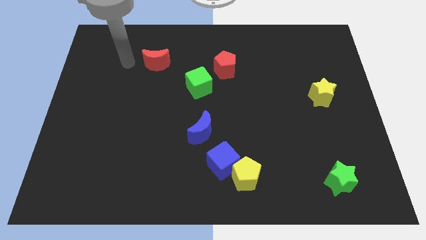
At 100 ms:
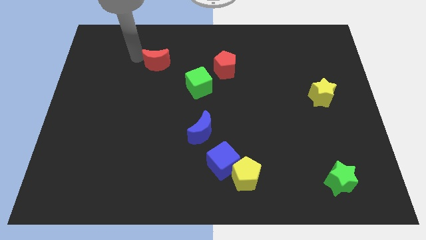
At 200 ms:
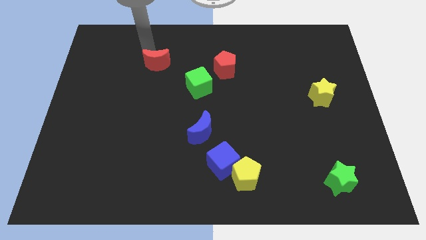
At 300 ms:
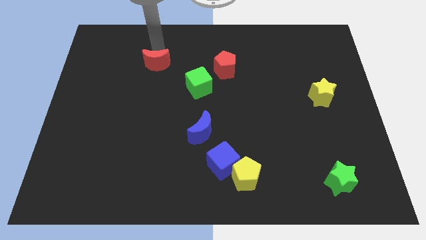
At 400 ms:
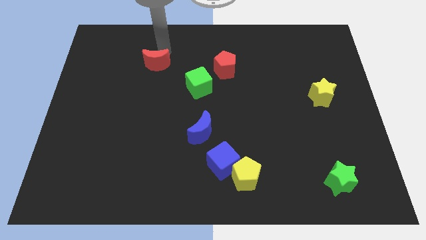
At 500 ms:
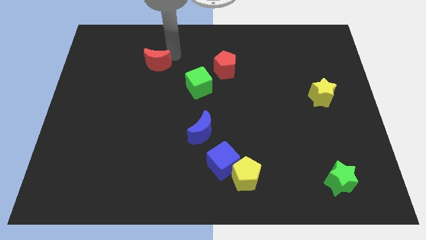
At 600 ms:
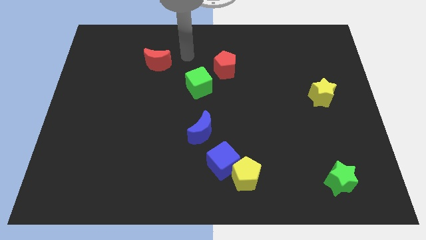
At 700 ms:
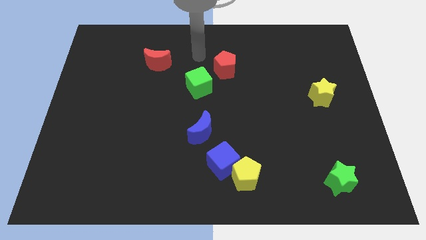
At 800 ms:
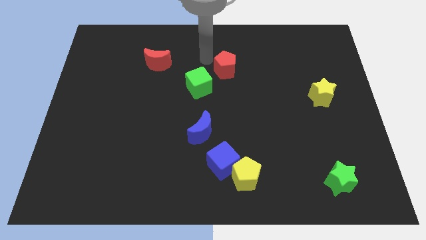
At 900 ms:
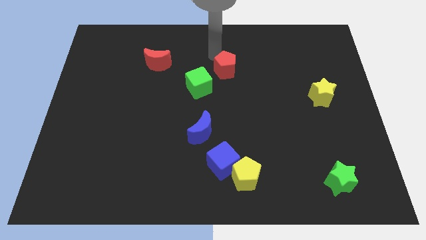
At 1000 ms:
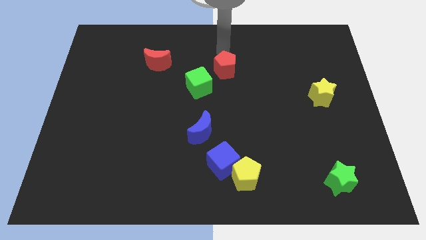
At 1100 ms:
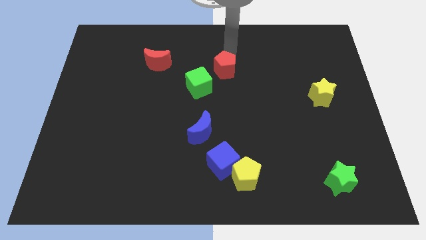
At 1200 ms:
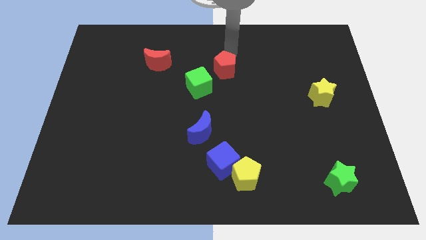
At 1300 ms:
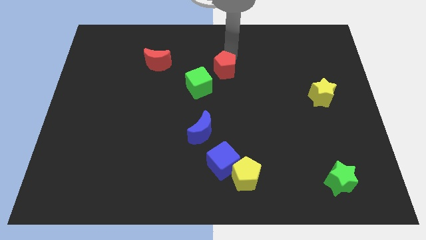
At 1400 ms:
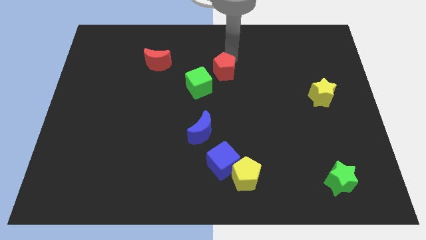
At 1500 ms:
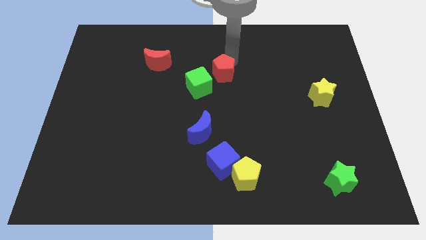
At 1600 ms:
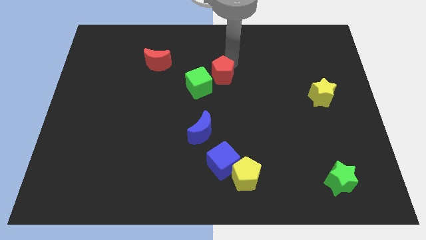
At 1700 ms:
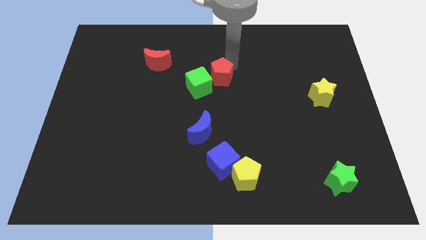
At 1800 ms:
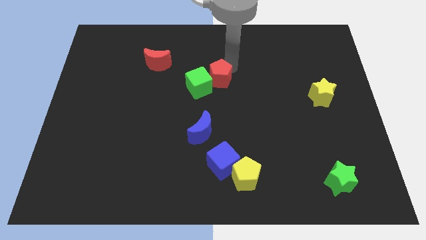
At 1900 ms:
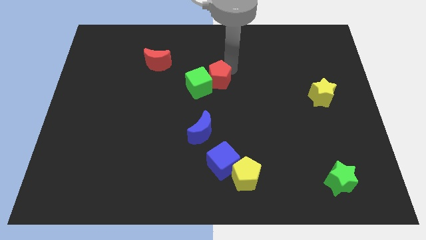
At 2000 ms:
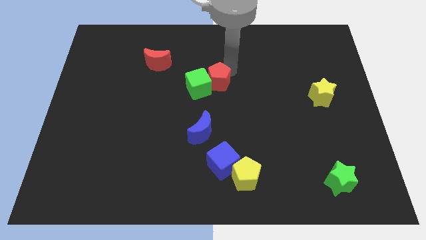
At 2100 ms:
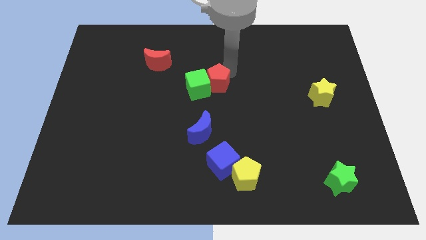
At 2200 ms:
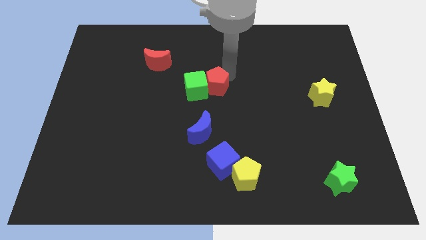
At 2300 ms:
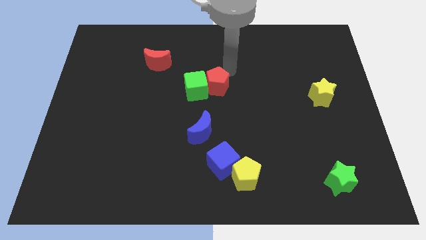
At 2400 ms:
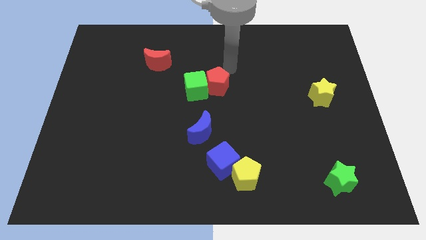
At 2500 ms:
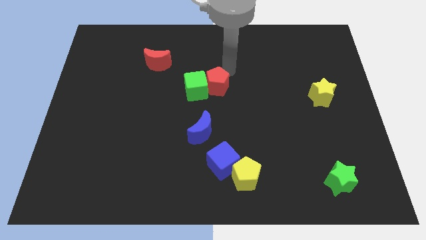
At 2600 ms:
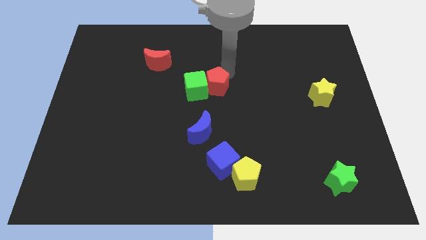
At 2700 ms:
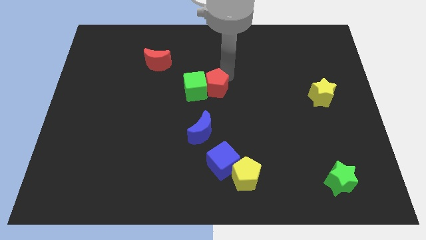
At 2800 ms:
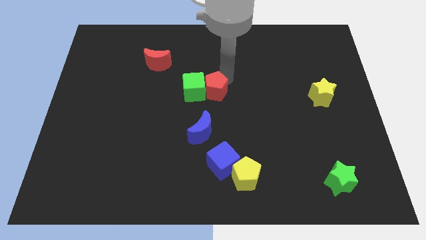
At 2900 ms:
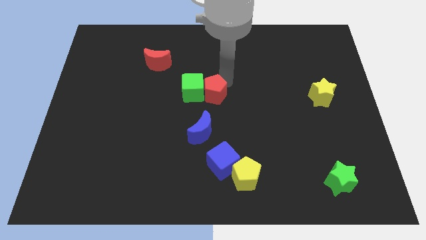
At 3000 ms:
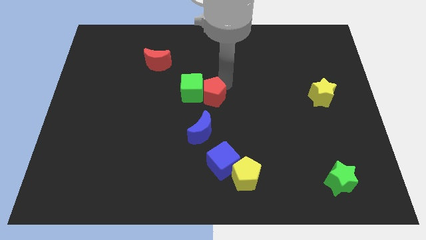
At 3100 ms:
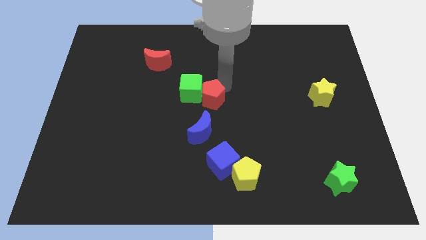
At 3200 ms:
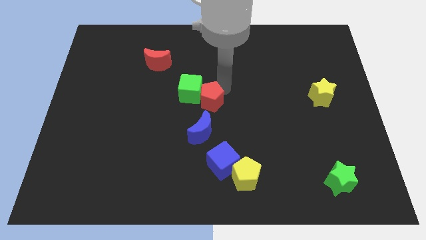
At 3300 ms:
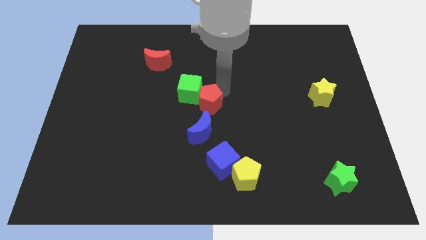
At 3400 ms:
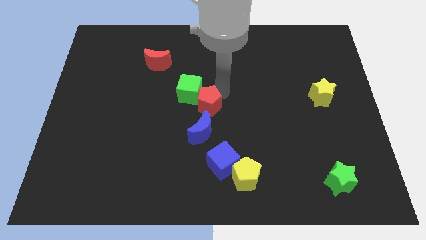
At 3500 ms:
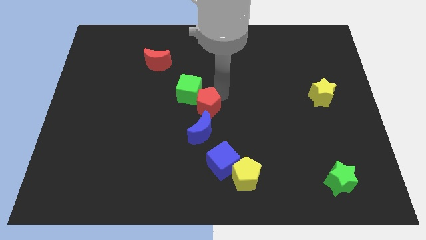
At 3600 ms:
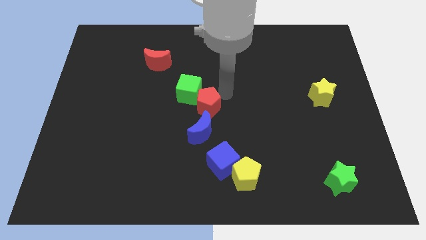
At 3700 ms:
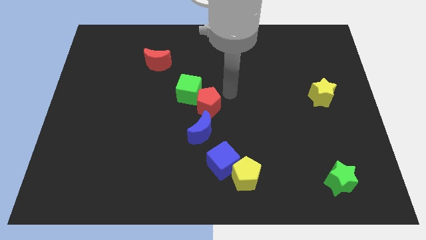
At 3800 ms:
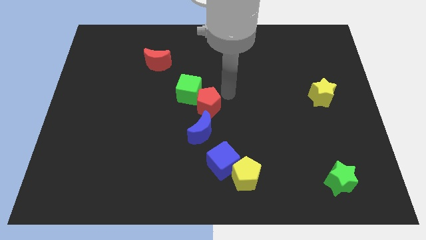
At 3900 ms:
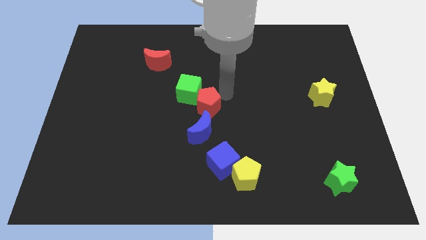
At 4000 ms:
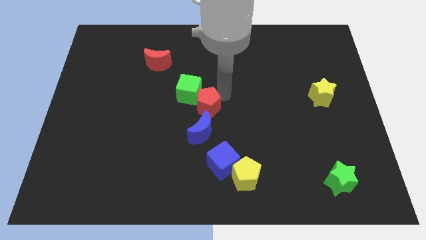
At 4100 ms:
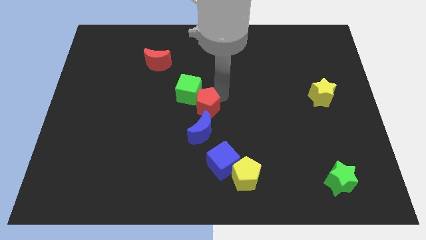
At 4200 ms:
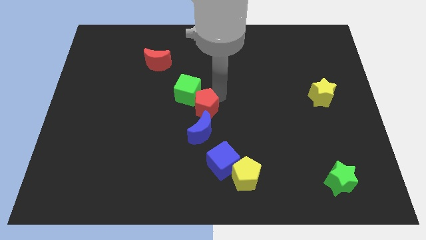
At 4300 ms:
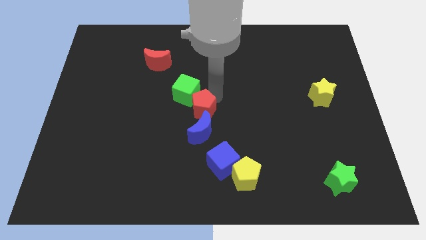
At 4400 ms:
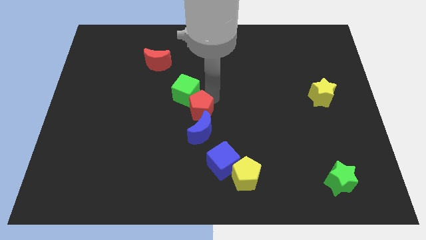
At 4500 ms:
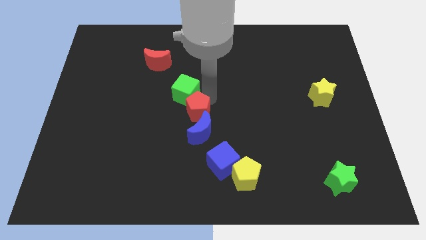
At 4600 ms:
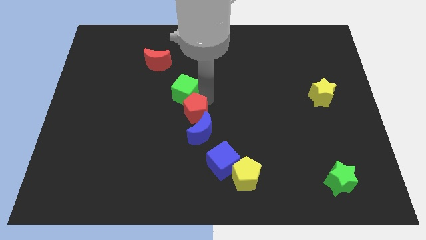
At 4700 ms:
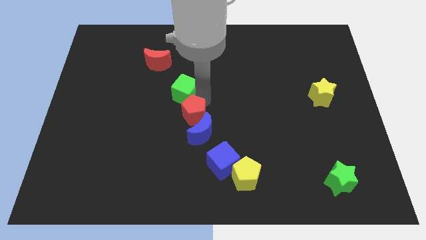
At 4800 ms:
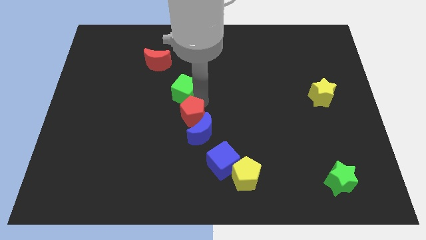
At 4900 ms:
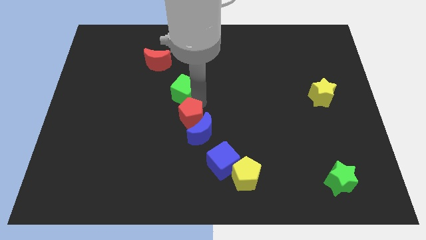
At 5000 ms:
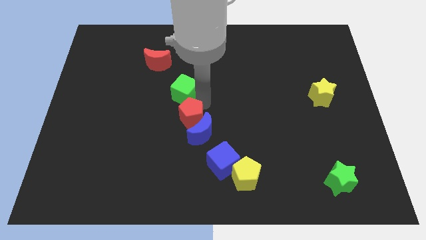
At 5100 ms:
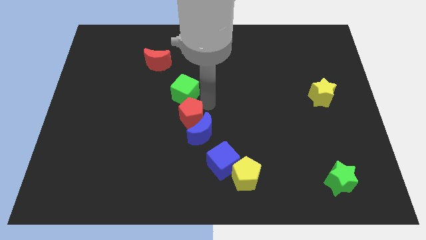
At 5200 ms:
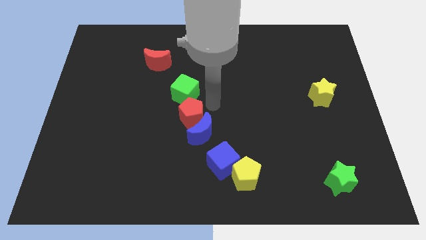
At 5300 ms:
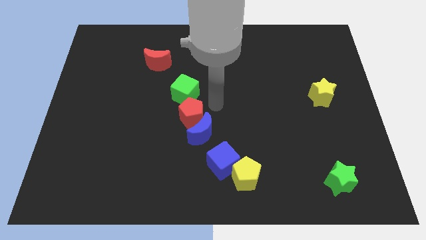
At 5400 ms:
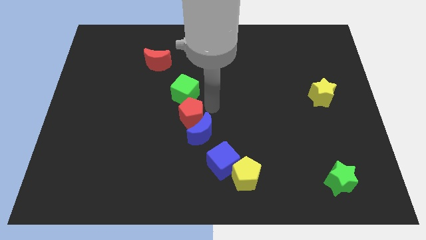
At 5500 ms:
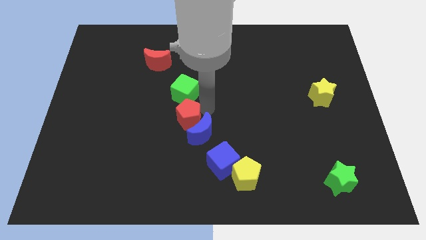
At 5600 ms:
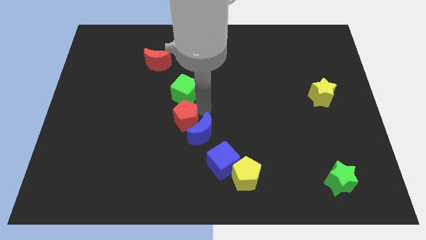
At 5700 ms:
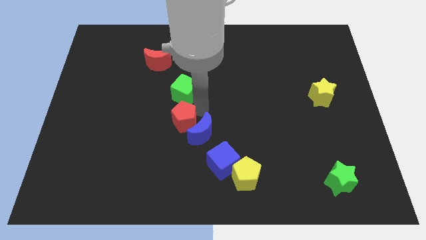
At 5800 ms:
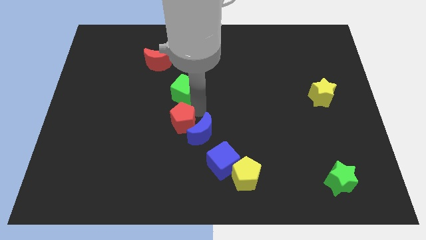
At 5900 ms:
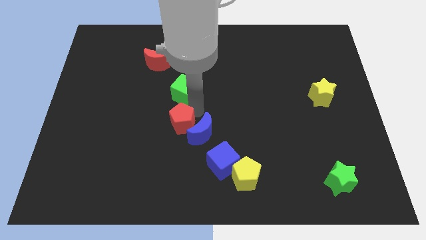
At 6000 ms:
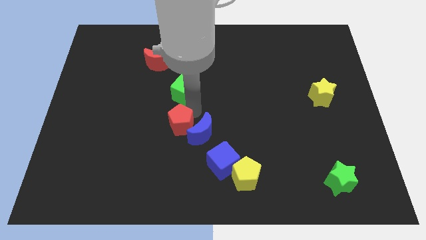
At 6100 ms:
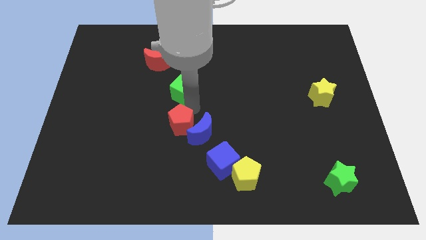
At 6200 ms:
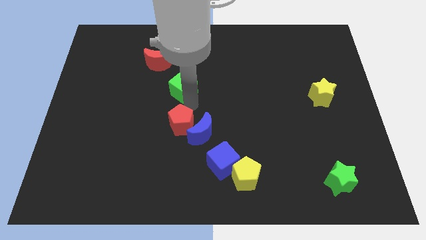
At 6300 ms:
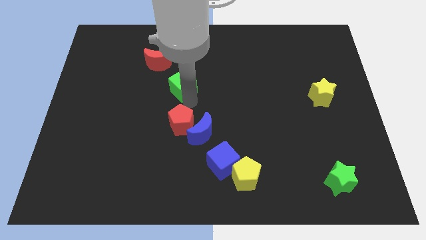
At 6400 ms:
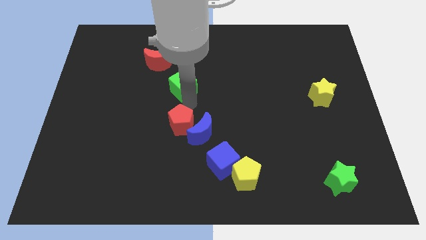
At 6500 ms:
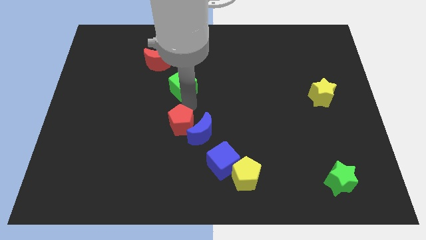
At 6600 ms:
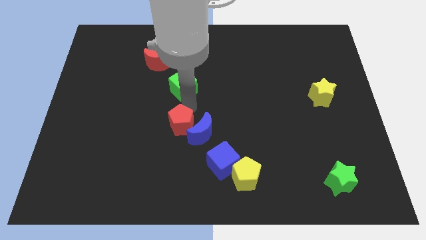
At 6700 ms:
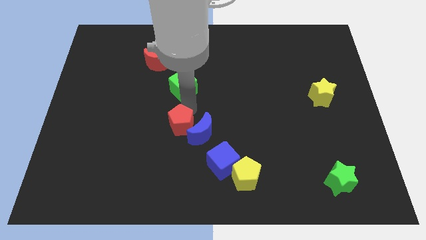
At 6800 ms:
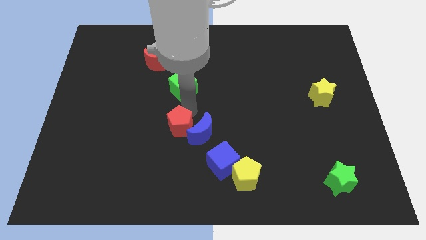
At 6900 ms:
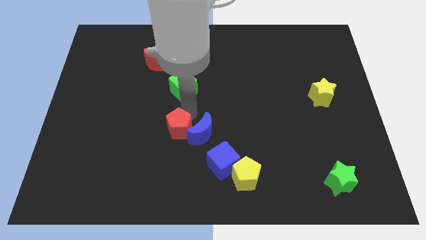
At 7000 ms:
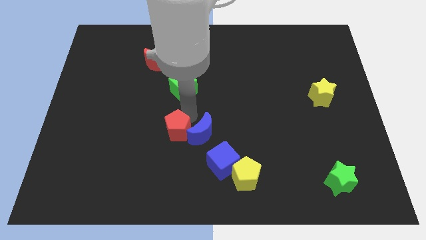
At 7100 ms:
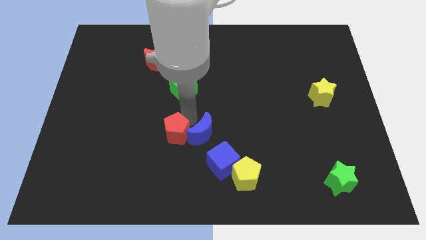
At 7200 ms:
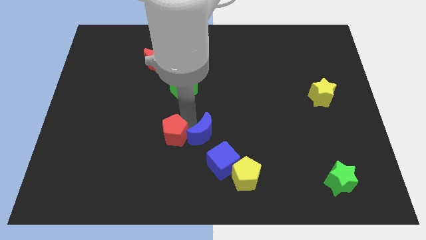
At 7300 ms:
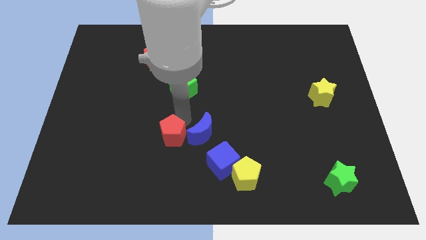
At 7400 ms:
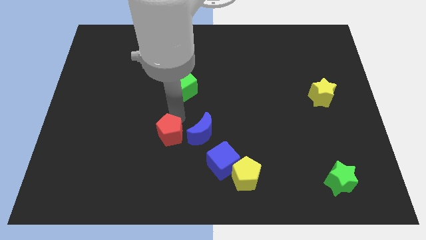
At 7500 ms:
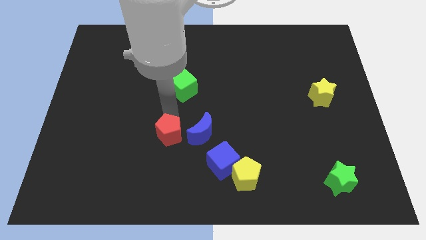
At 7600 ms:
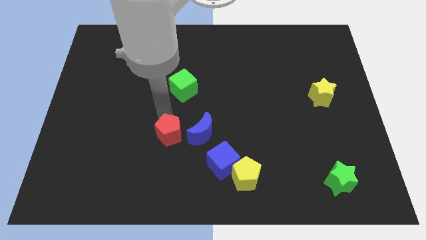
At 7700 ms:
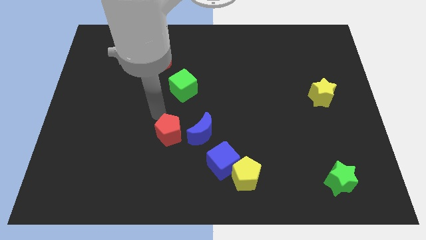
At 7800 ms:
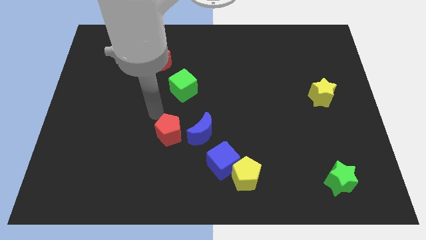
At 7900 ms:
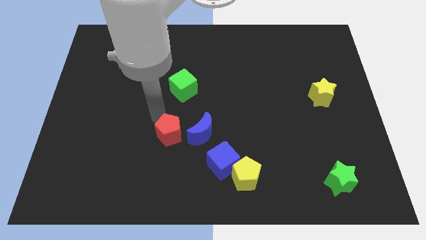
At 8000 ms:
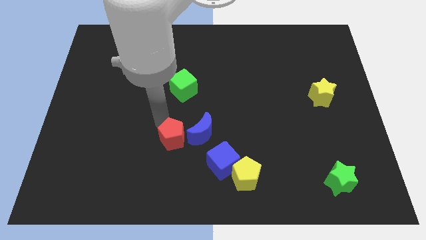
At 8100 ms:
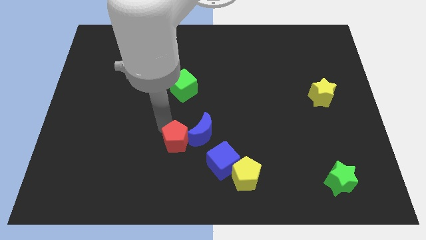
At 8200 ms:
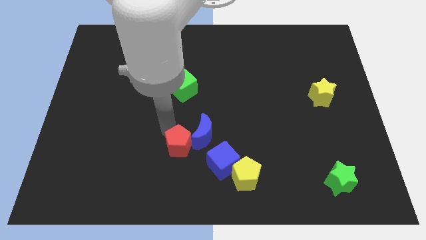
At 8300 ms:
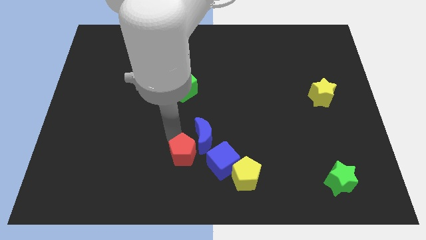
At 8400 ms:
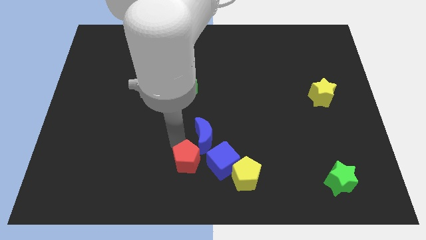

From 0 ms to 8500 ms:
slide the red pentagon to the left side of the yellow pentagon
